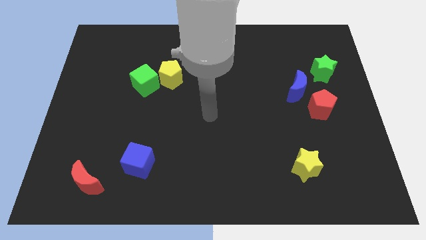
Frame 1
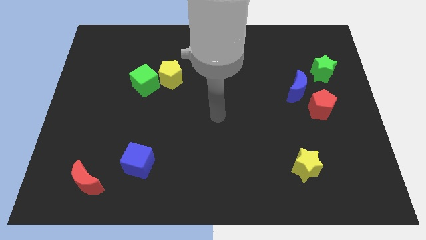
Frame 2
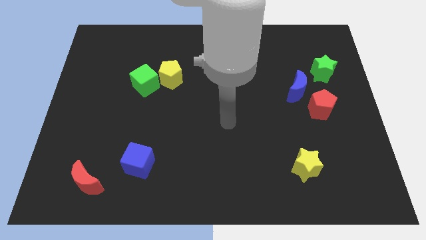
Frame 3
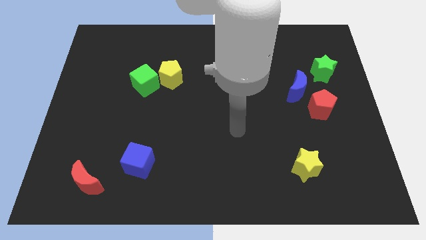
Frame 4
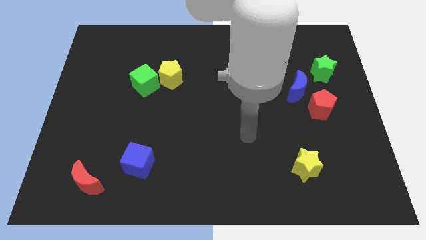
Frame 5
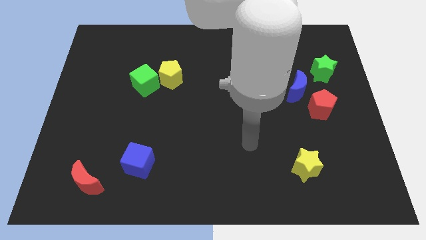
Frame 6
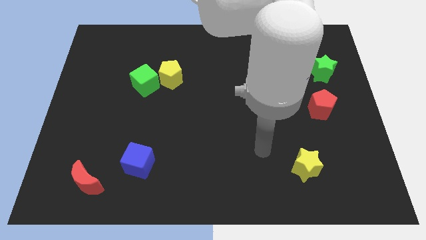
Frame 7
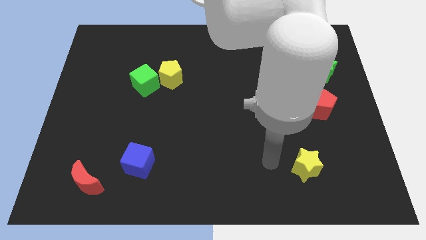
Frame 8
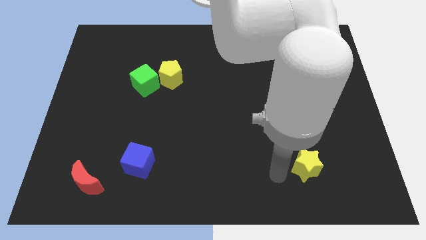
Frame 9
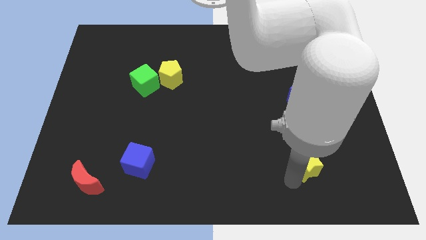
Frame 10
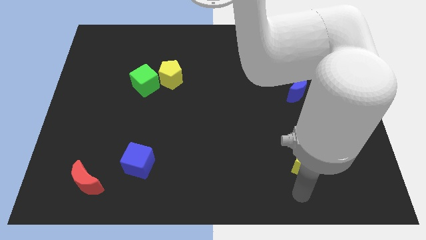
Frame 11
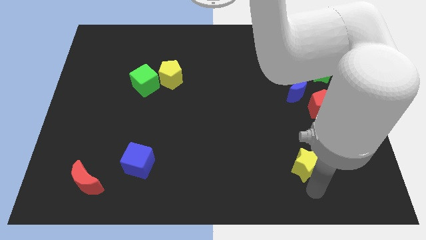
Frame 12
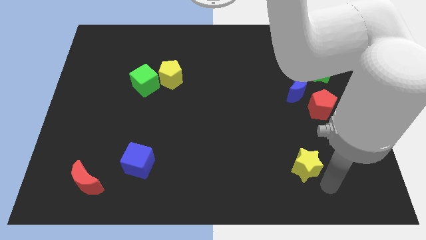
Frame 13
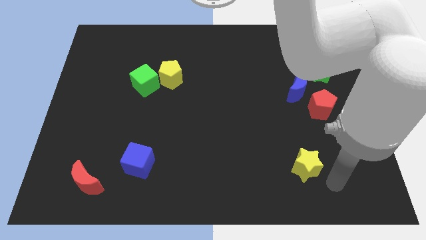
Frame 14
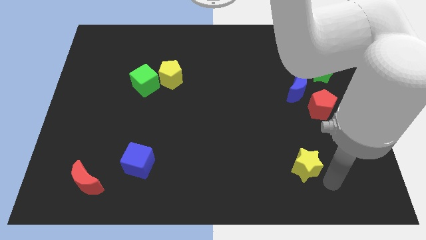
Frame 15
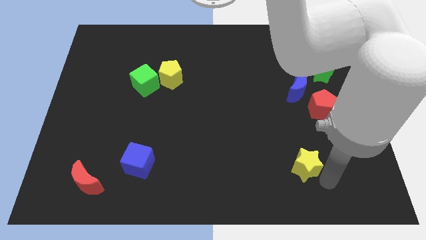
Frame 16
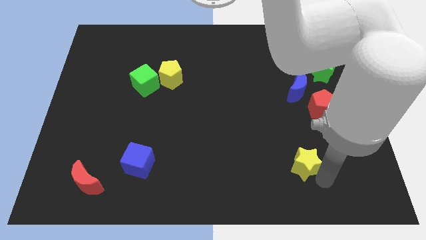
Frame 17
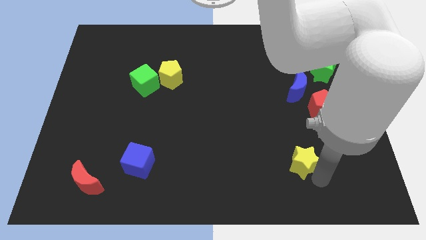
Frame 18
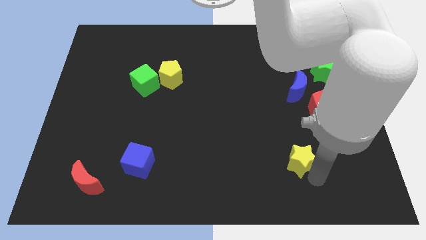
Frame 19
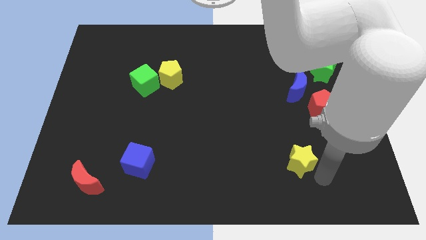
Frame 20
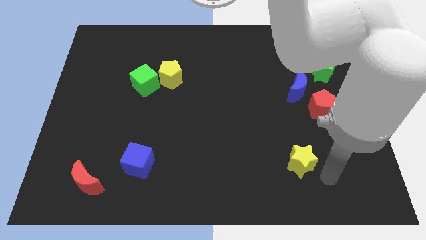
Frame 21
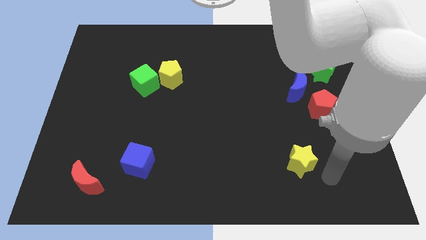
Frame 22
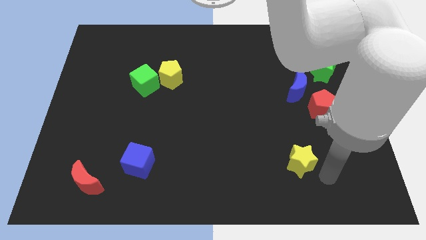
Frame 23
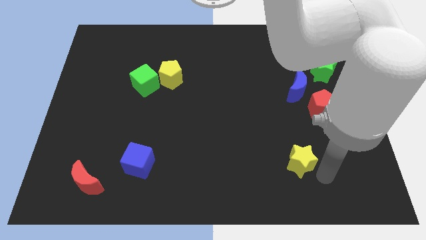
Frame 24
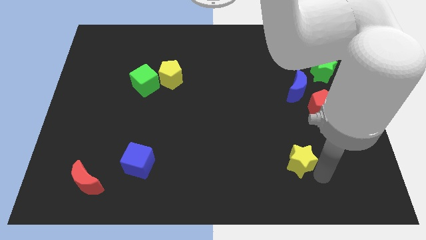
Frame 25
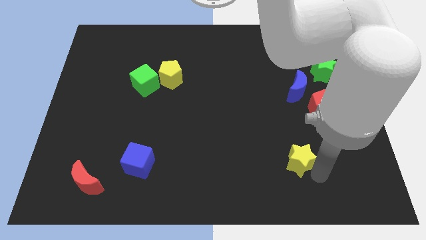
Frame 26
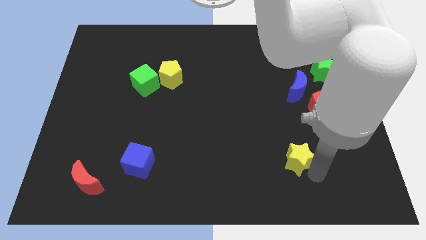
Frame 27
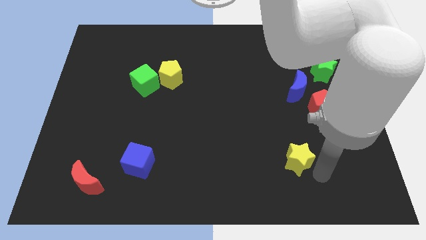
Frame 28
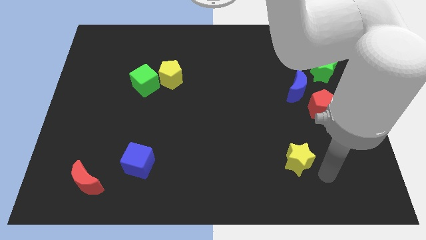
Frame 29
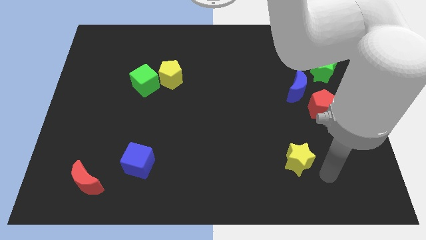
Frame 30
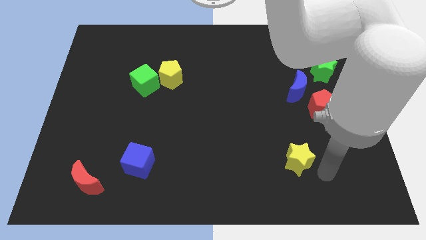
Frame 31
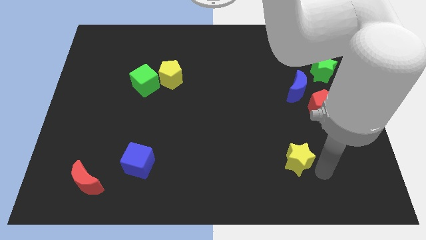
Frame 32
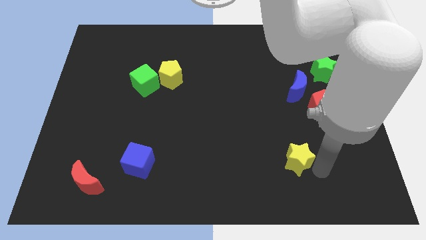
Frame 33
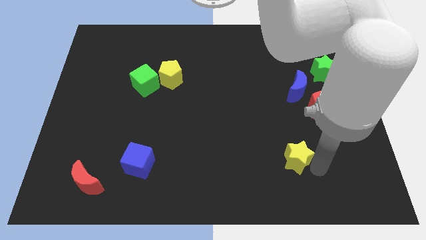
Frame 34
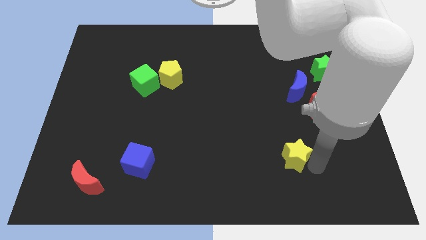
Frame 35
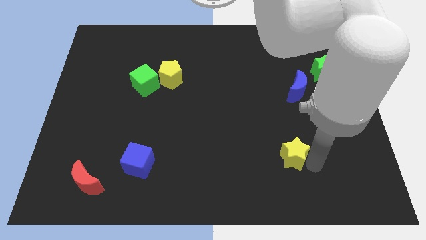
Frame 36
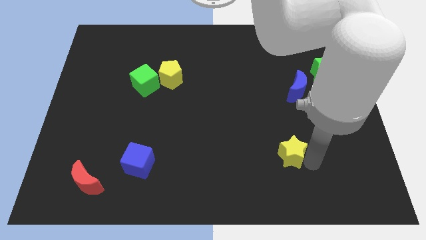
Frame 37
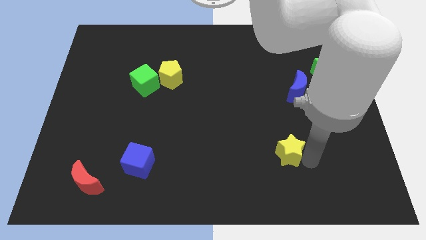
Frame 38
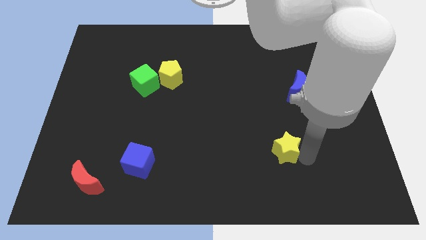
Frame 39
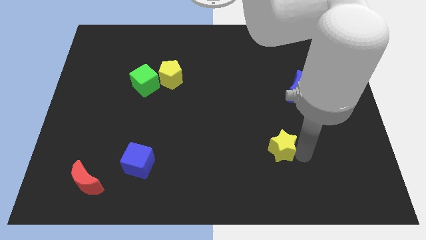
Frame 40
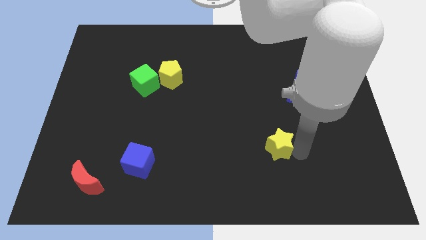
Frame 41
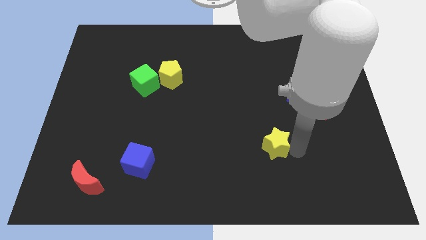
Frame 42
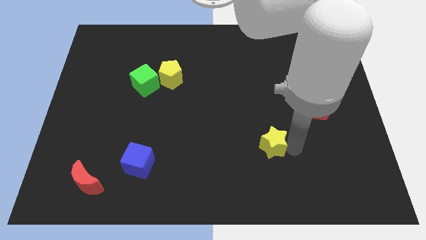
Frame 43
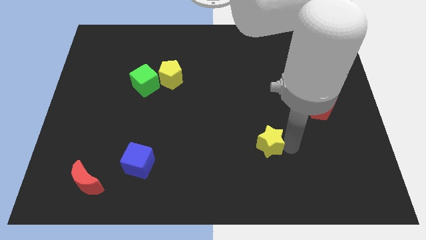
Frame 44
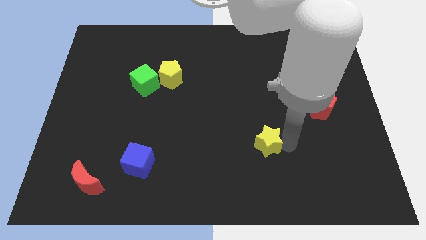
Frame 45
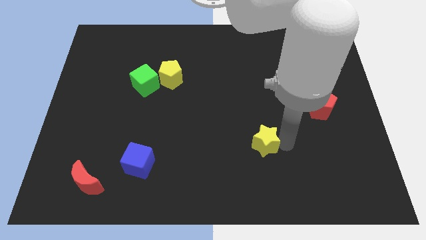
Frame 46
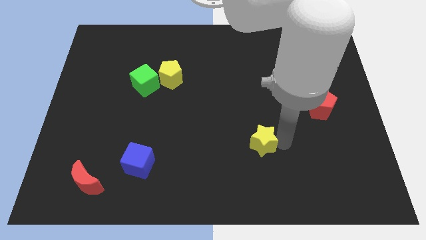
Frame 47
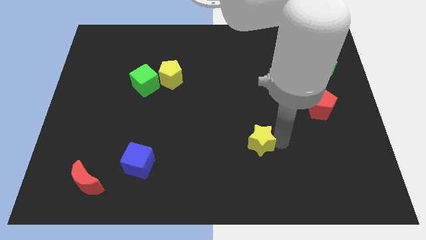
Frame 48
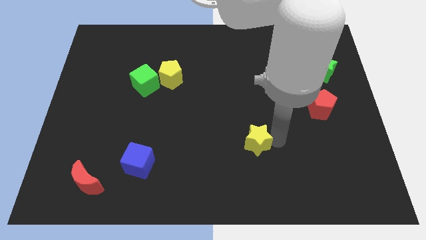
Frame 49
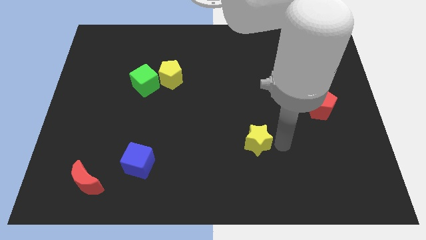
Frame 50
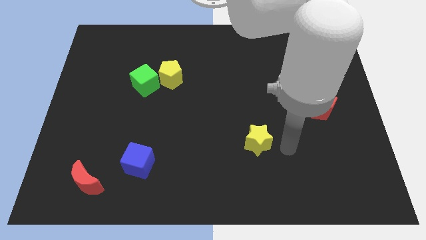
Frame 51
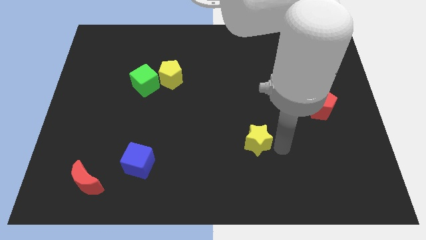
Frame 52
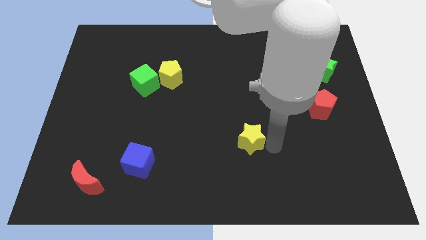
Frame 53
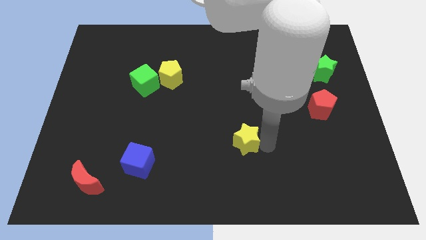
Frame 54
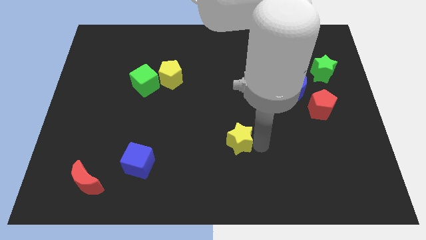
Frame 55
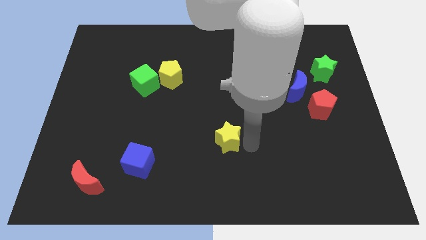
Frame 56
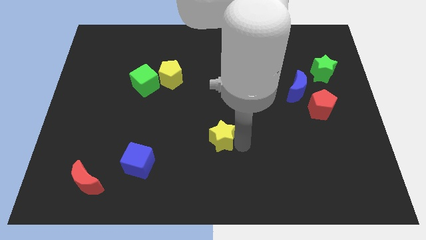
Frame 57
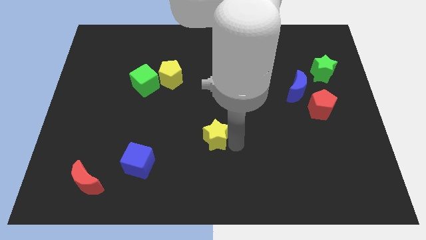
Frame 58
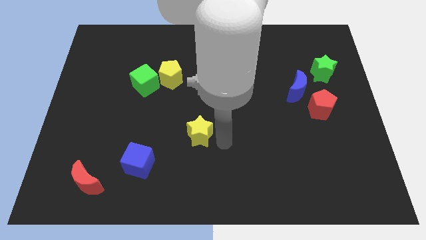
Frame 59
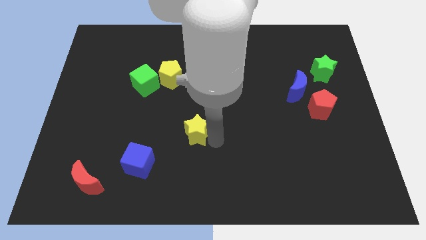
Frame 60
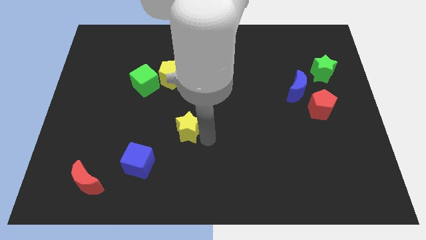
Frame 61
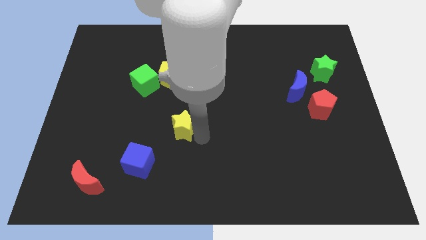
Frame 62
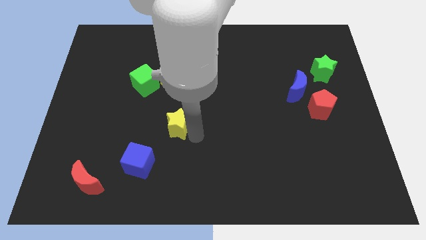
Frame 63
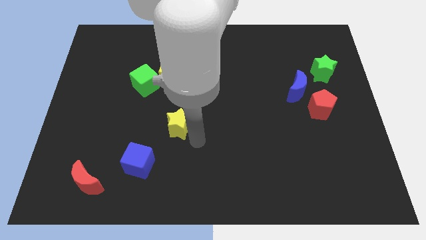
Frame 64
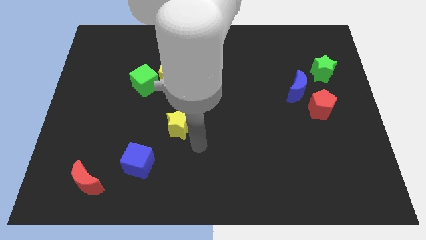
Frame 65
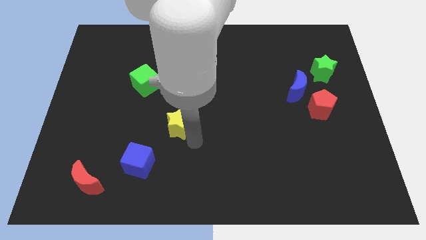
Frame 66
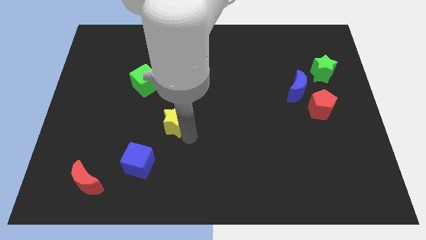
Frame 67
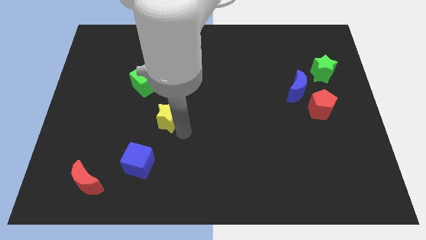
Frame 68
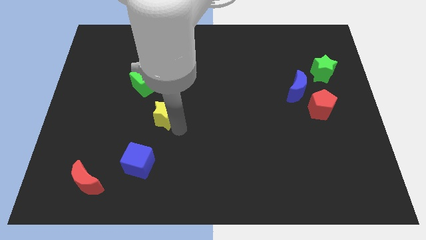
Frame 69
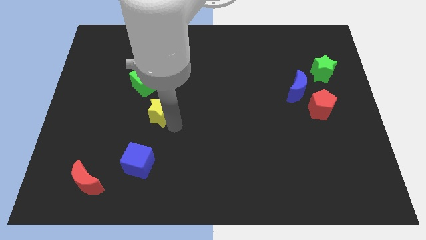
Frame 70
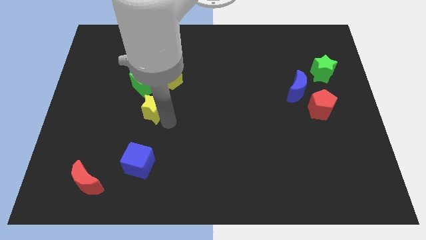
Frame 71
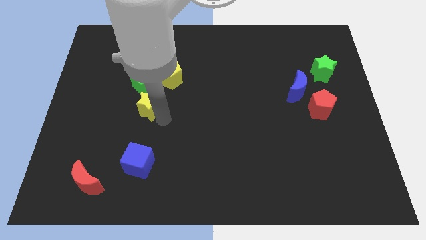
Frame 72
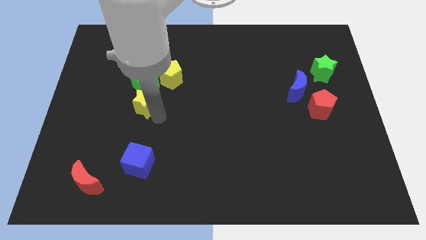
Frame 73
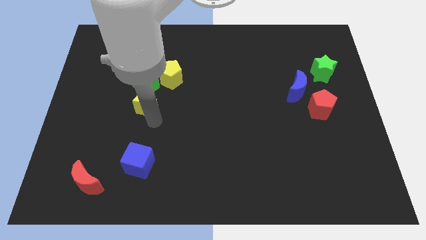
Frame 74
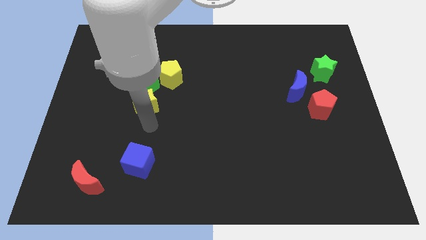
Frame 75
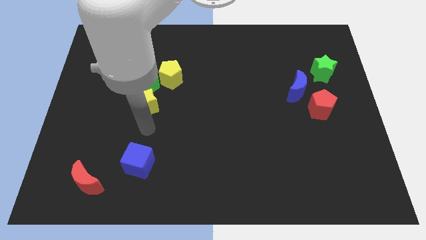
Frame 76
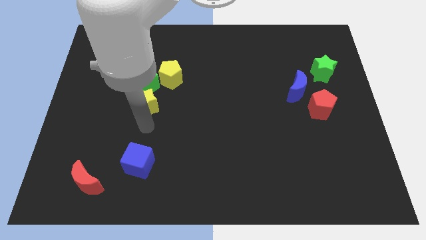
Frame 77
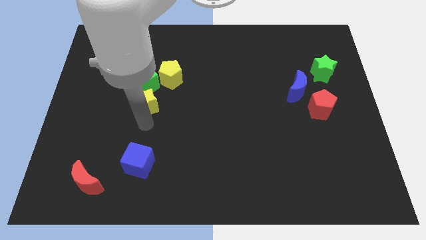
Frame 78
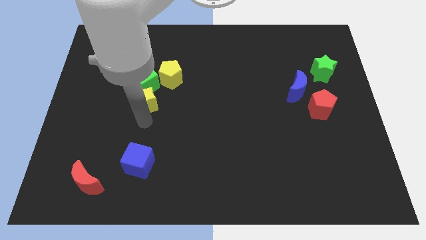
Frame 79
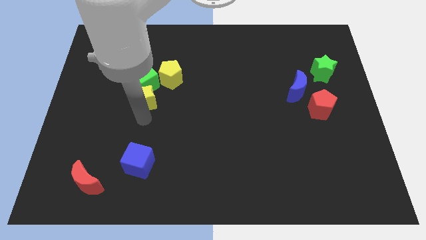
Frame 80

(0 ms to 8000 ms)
move the yellow star next to the green cube
